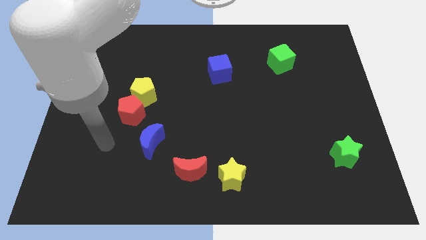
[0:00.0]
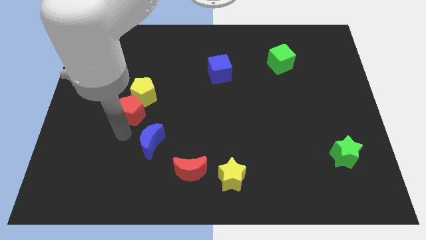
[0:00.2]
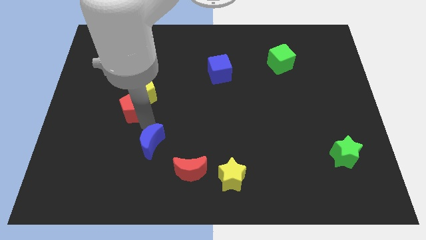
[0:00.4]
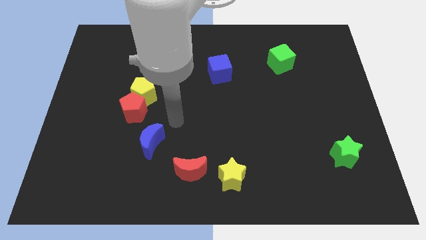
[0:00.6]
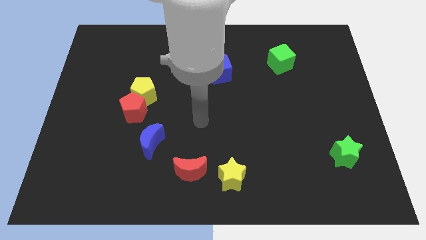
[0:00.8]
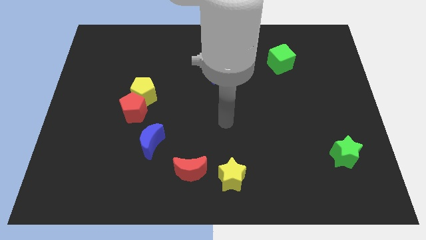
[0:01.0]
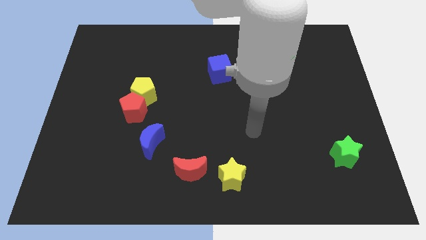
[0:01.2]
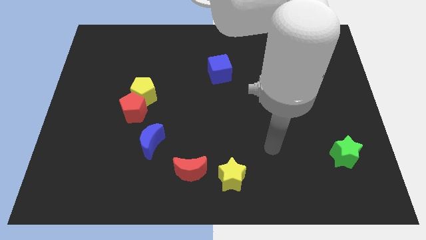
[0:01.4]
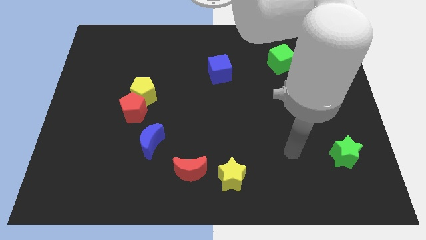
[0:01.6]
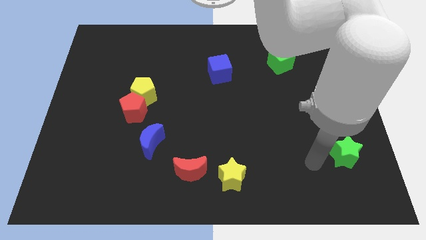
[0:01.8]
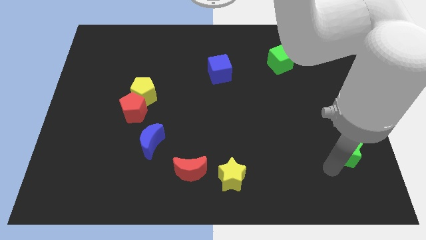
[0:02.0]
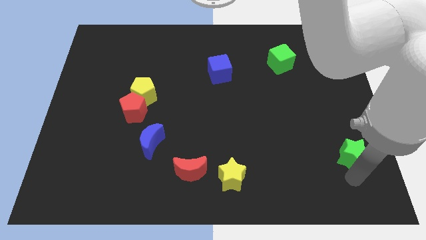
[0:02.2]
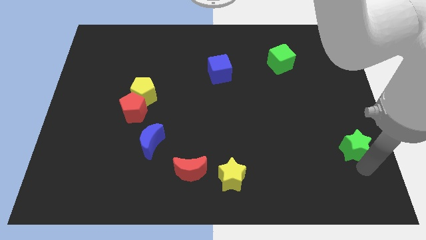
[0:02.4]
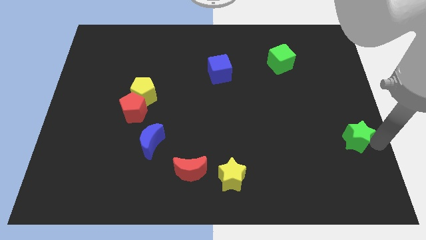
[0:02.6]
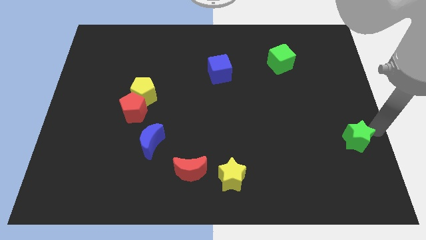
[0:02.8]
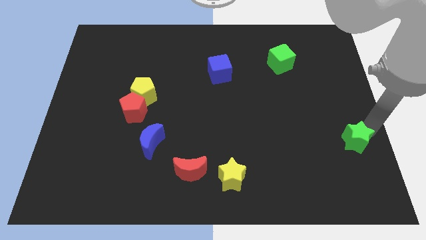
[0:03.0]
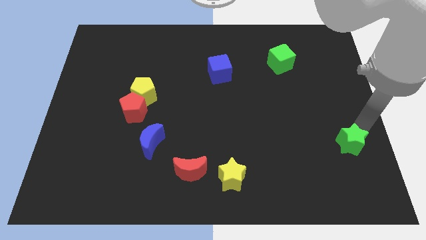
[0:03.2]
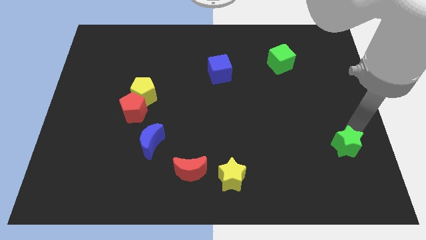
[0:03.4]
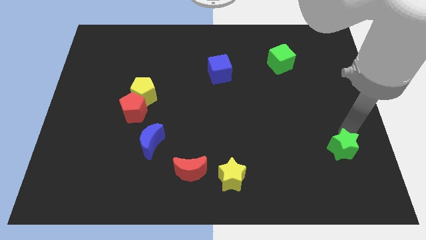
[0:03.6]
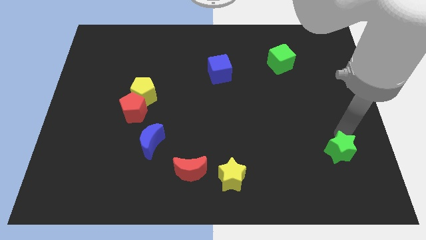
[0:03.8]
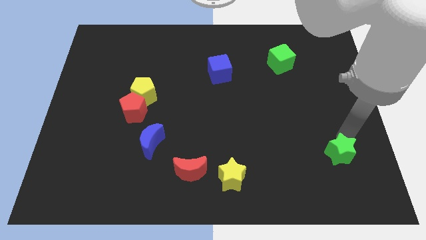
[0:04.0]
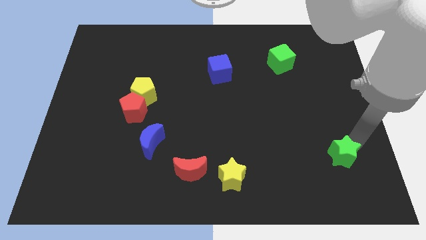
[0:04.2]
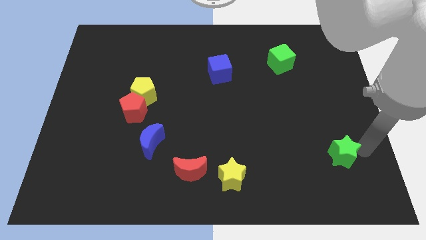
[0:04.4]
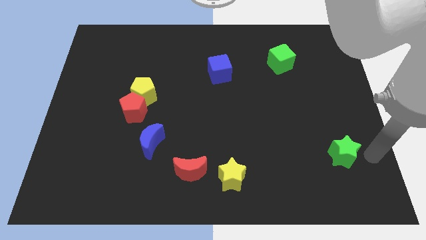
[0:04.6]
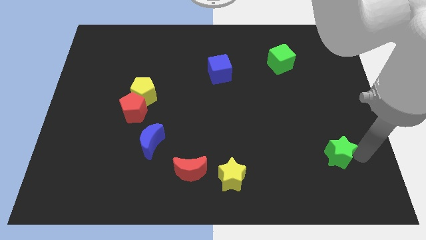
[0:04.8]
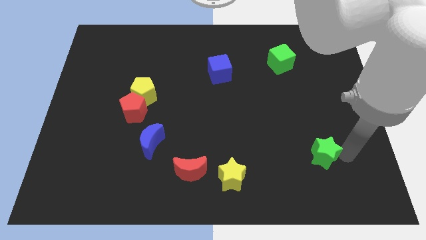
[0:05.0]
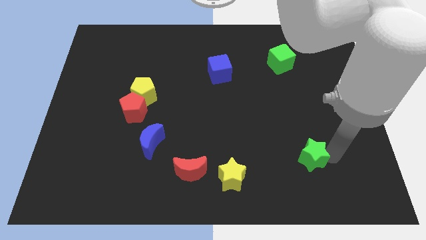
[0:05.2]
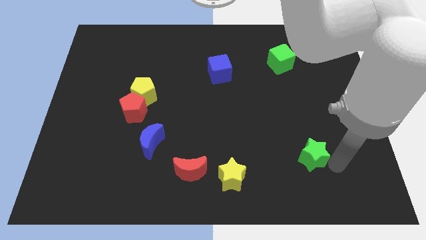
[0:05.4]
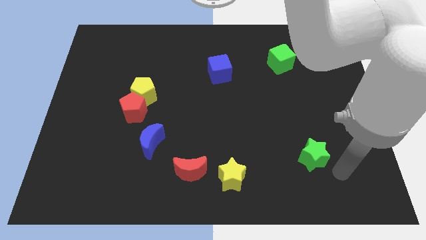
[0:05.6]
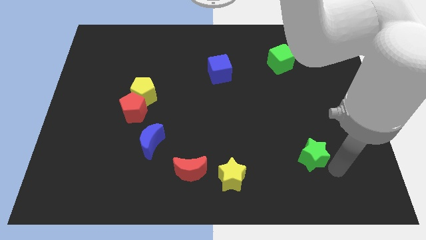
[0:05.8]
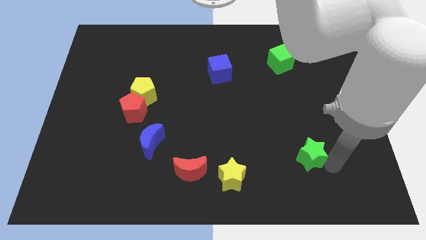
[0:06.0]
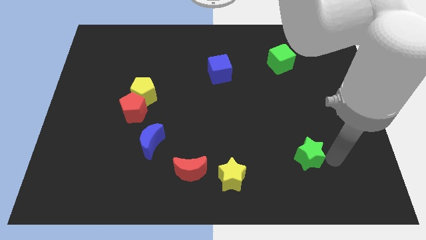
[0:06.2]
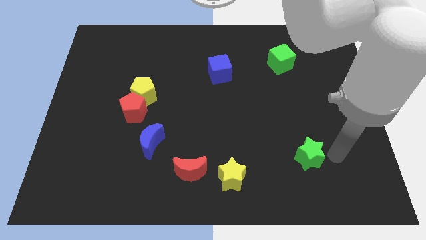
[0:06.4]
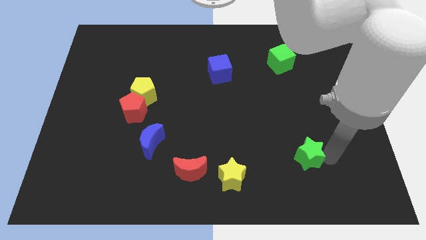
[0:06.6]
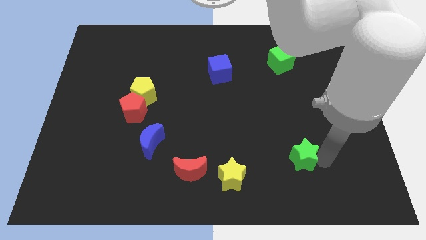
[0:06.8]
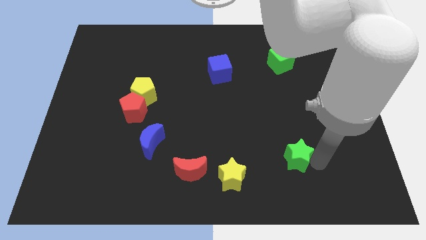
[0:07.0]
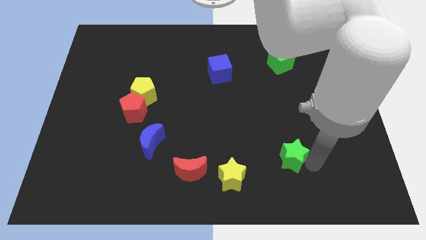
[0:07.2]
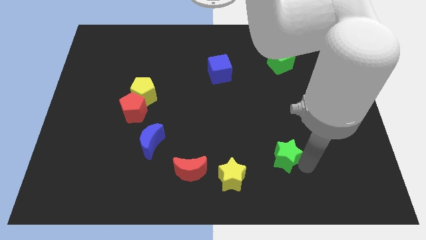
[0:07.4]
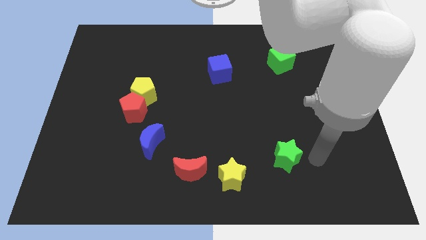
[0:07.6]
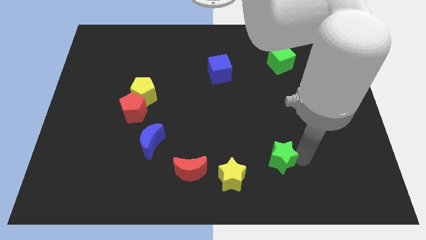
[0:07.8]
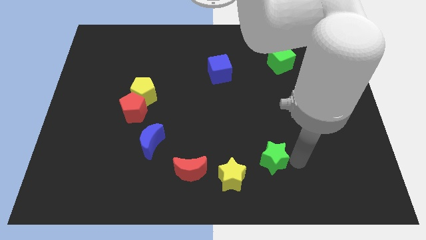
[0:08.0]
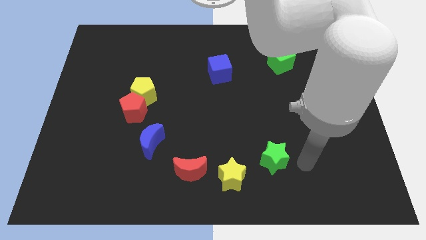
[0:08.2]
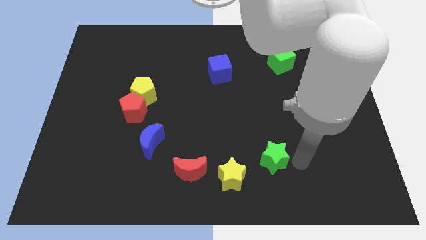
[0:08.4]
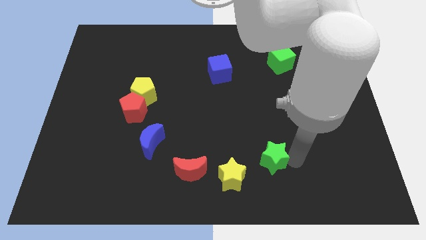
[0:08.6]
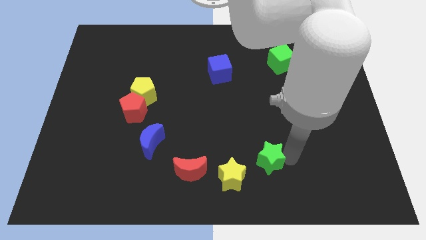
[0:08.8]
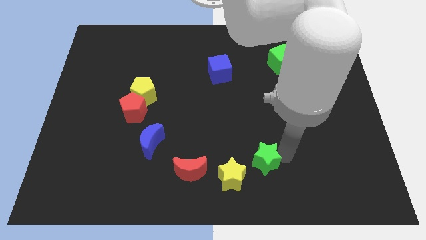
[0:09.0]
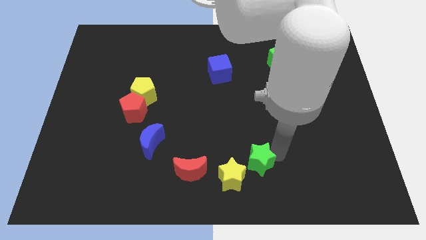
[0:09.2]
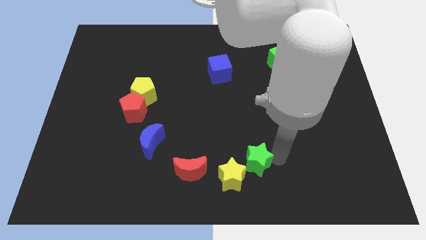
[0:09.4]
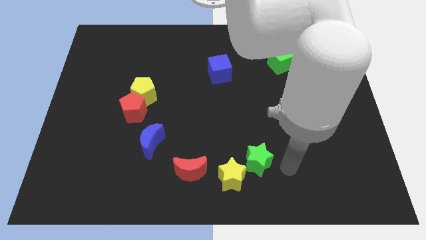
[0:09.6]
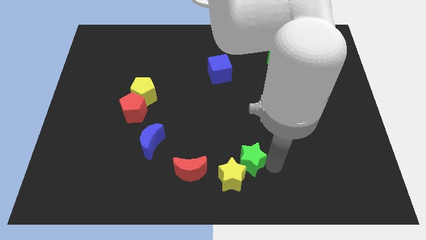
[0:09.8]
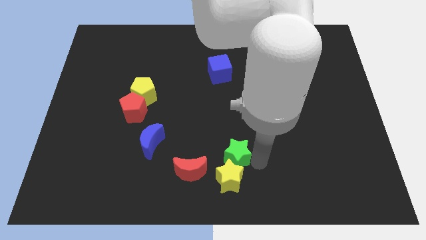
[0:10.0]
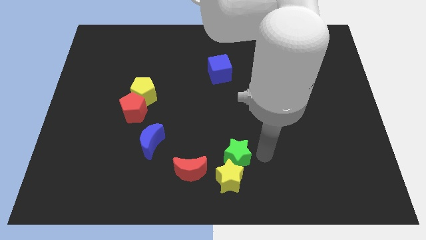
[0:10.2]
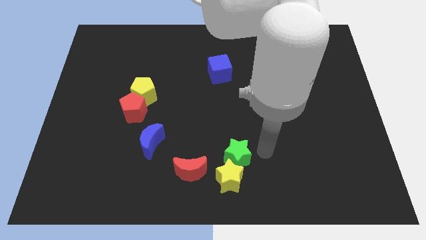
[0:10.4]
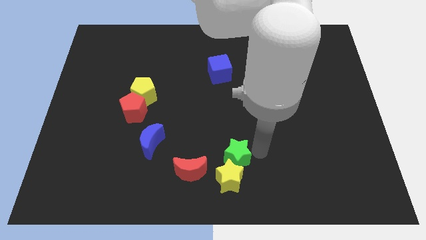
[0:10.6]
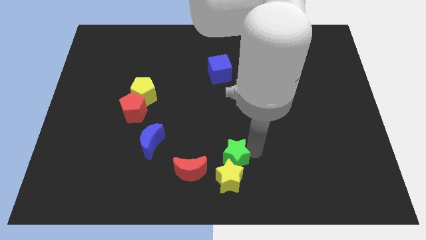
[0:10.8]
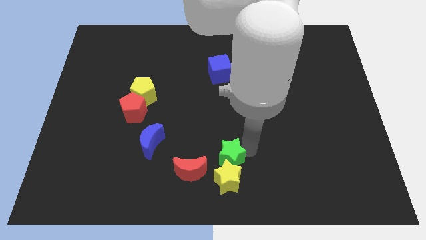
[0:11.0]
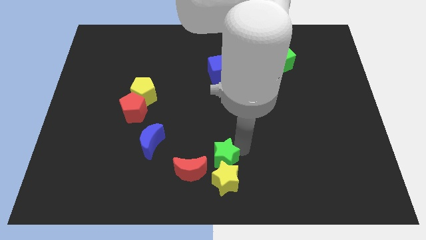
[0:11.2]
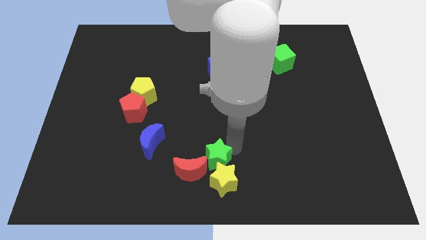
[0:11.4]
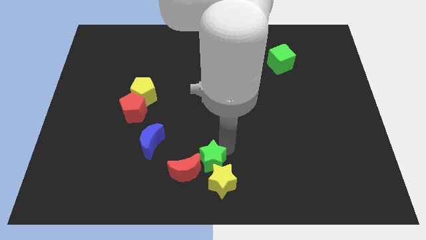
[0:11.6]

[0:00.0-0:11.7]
move the green star to the red moon
